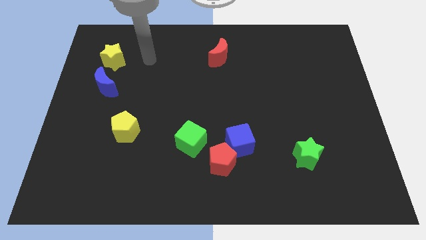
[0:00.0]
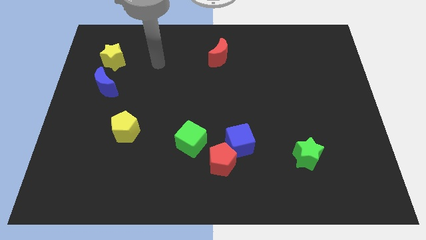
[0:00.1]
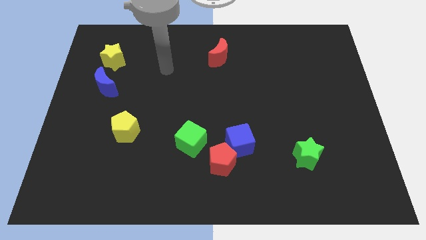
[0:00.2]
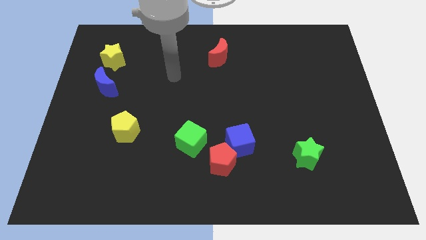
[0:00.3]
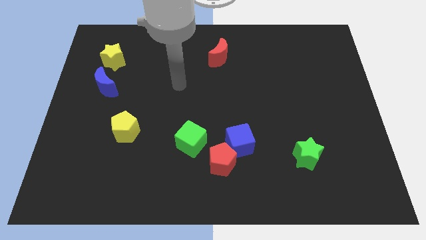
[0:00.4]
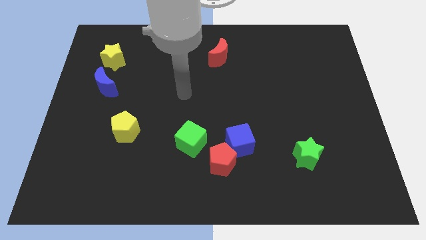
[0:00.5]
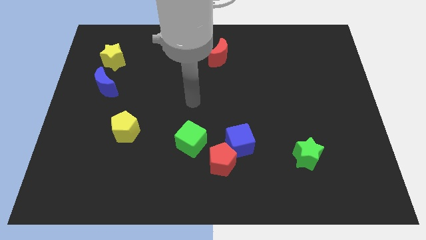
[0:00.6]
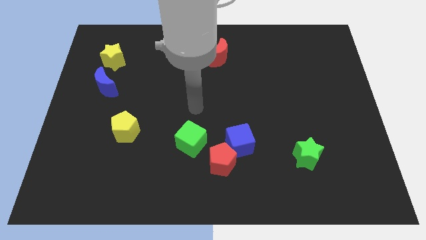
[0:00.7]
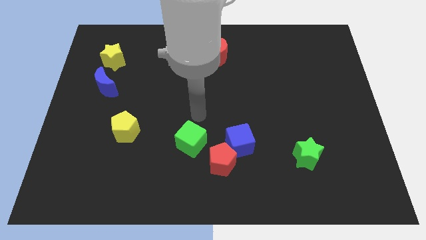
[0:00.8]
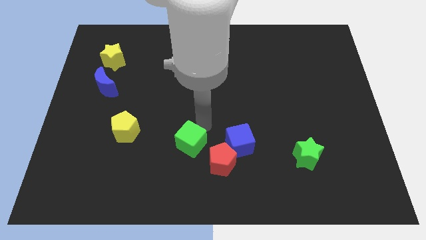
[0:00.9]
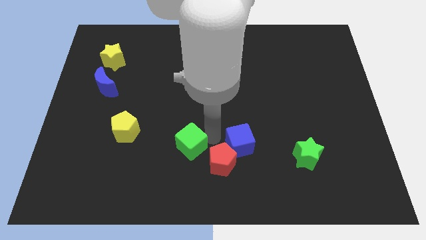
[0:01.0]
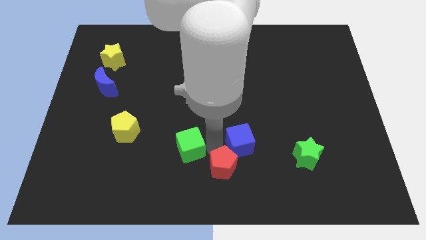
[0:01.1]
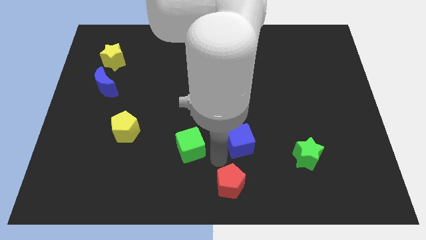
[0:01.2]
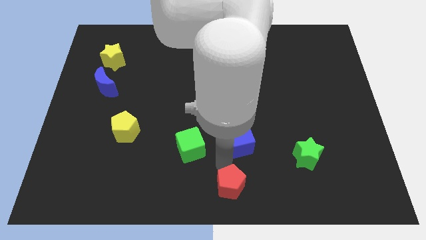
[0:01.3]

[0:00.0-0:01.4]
separate the blue cube from the red pentagon

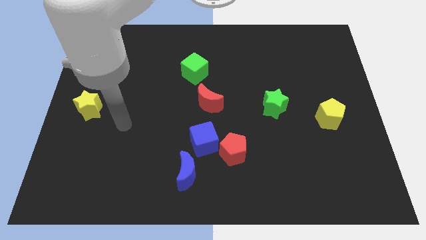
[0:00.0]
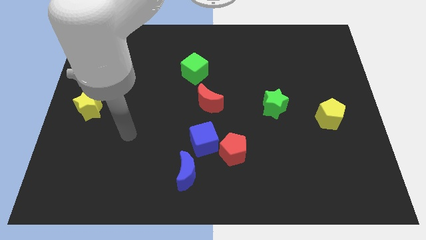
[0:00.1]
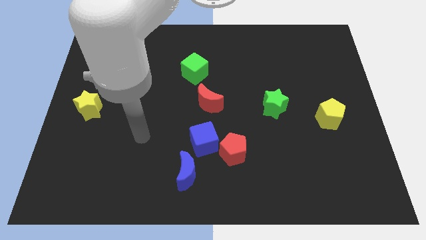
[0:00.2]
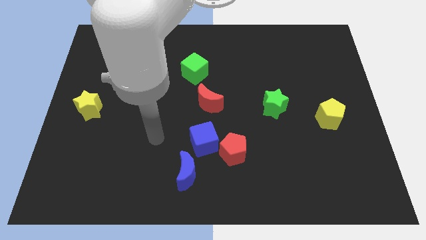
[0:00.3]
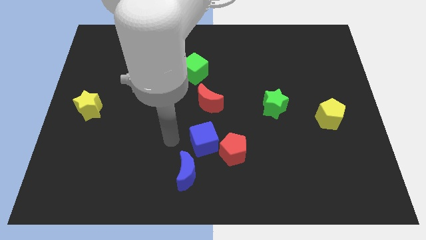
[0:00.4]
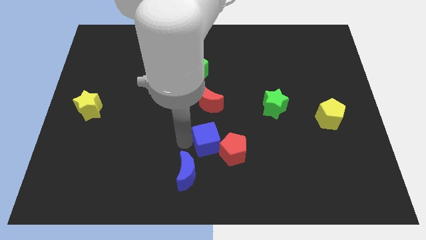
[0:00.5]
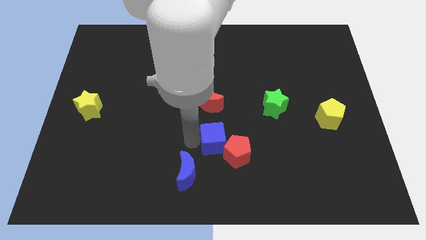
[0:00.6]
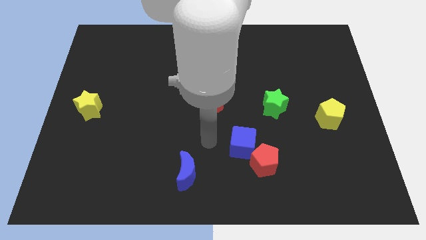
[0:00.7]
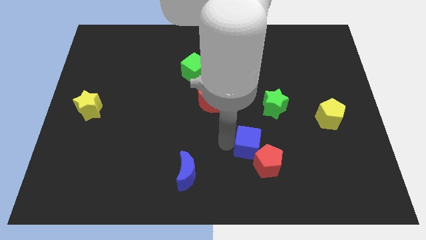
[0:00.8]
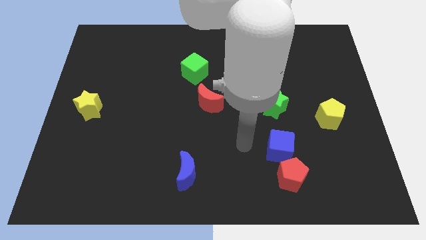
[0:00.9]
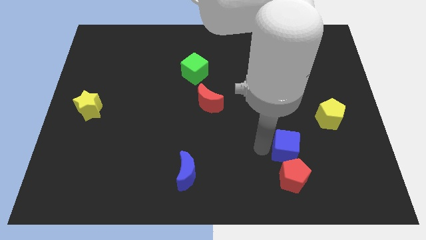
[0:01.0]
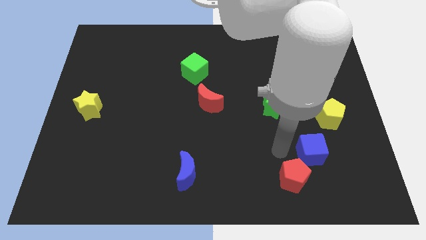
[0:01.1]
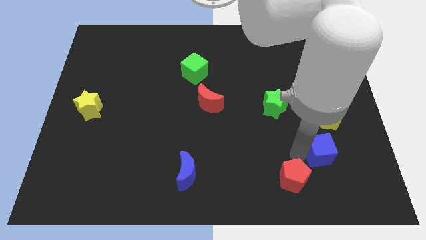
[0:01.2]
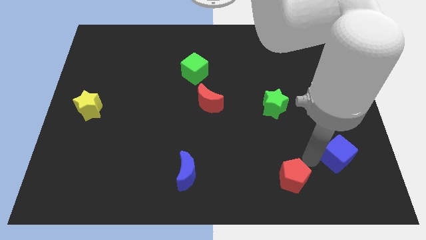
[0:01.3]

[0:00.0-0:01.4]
pull the red pentagon apart from the blue cube

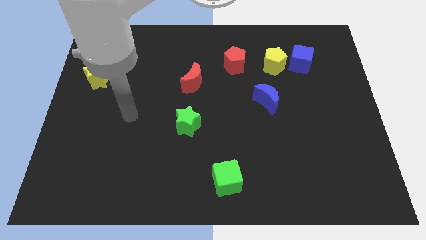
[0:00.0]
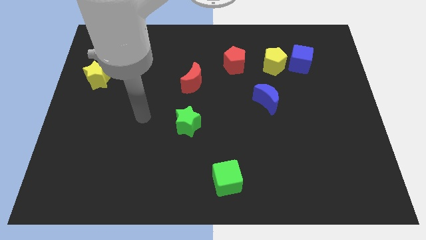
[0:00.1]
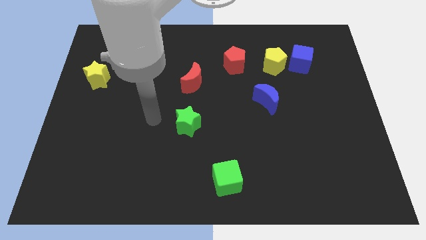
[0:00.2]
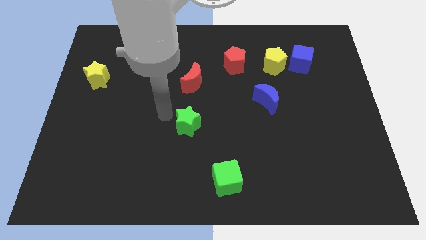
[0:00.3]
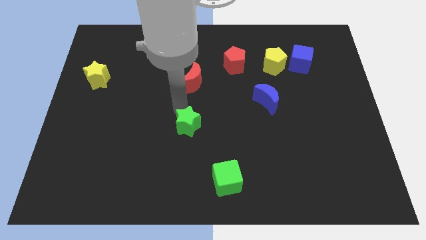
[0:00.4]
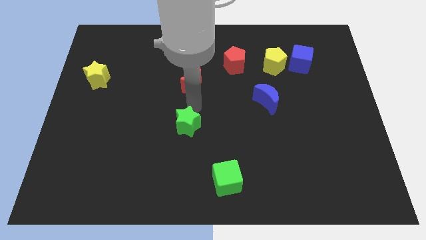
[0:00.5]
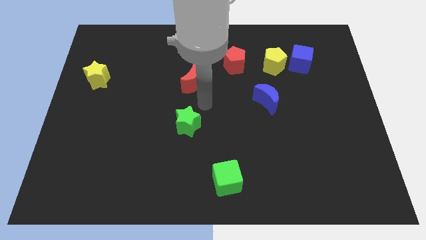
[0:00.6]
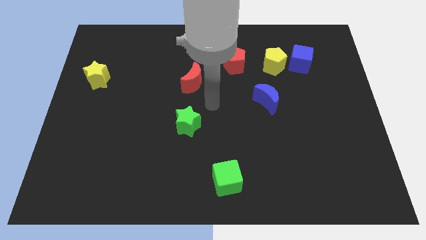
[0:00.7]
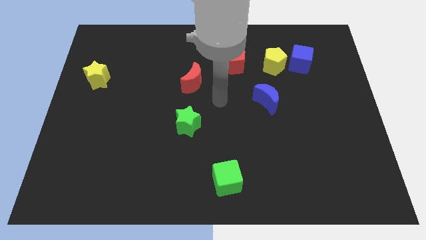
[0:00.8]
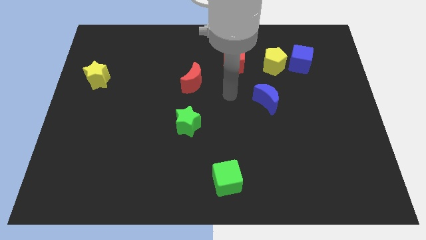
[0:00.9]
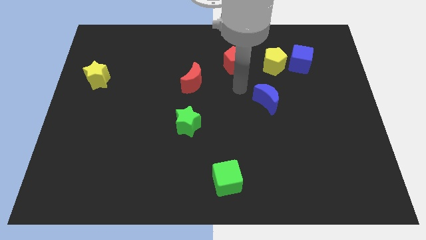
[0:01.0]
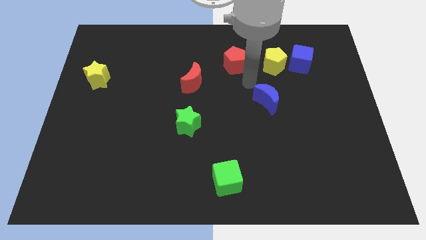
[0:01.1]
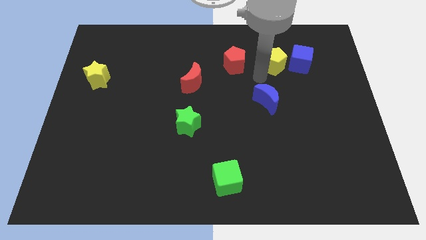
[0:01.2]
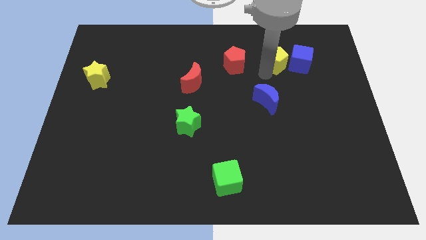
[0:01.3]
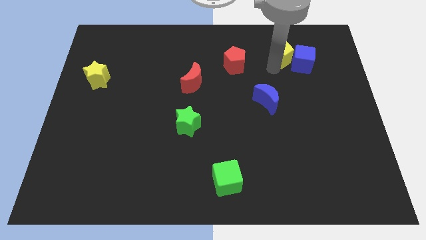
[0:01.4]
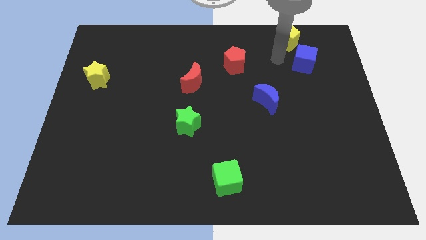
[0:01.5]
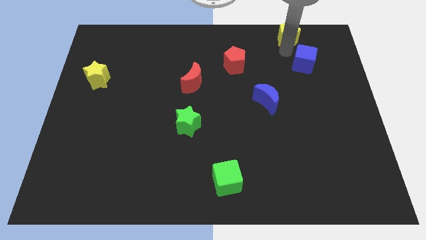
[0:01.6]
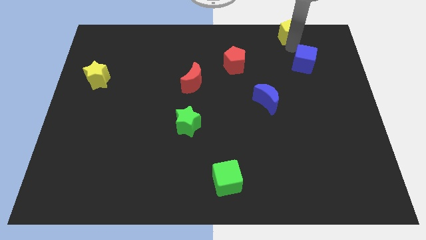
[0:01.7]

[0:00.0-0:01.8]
pull the blue cube apart from the yellow pentagon

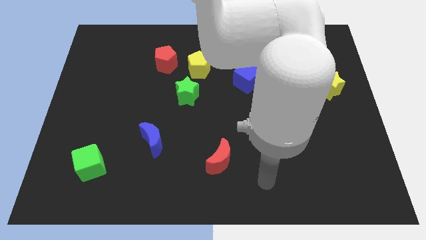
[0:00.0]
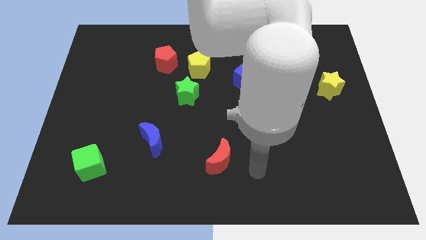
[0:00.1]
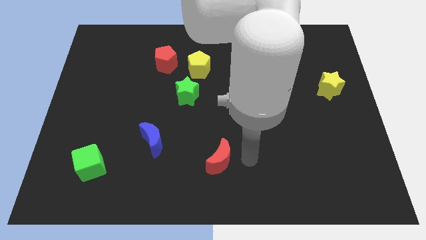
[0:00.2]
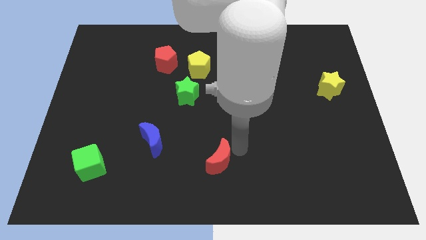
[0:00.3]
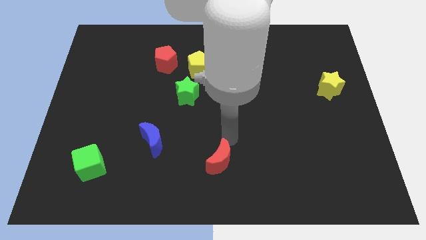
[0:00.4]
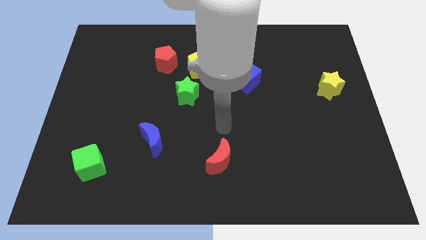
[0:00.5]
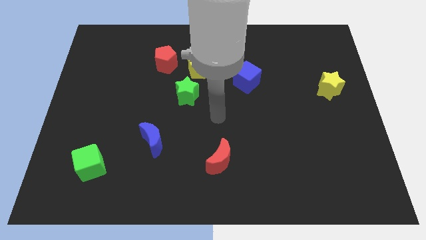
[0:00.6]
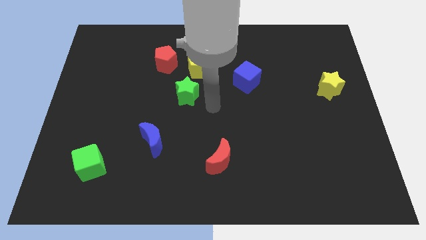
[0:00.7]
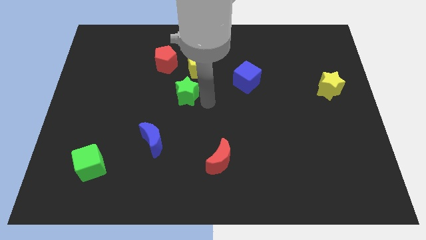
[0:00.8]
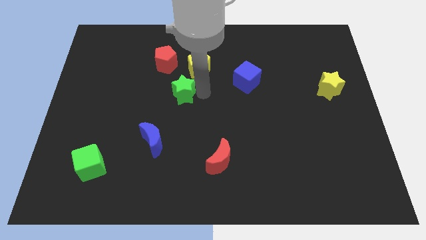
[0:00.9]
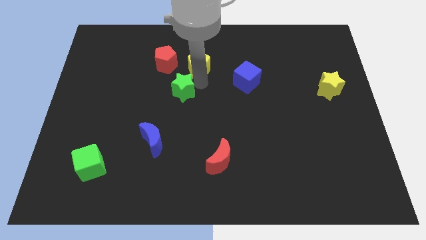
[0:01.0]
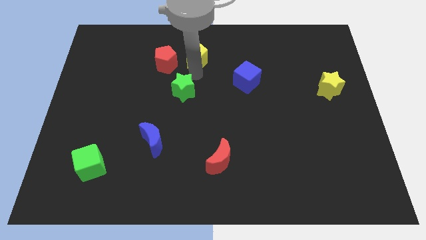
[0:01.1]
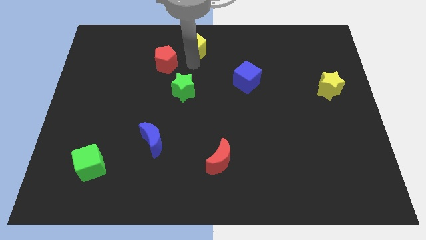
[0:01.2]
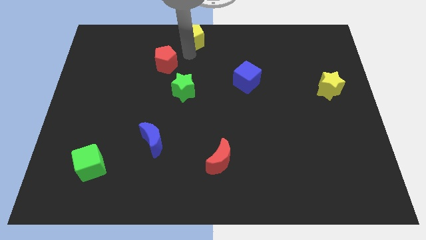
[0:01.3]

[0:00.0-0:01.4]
separate the red pentagon from the yellow pentagon

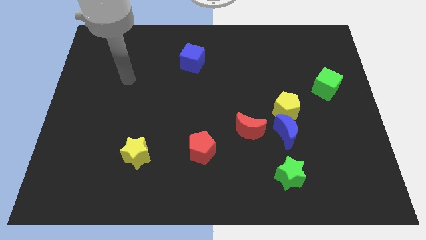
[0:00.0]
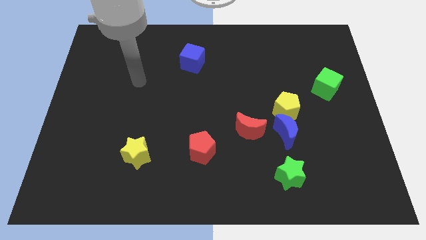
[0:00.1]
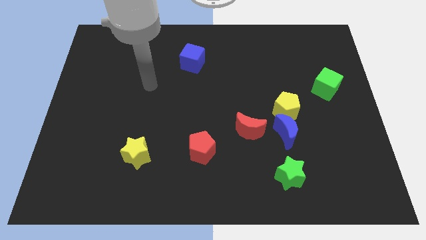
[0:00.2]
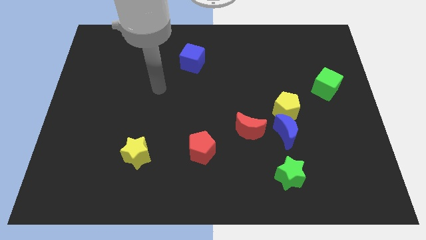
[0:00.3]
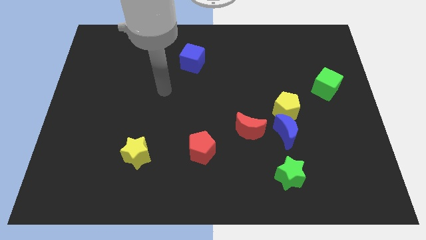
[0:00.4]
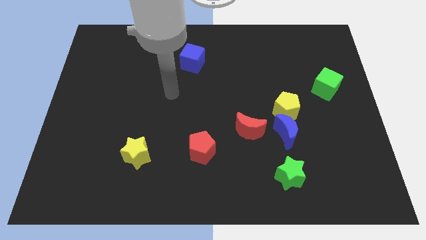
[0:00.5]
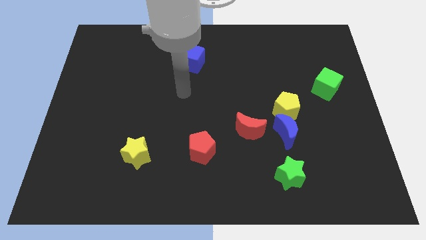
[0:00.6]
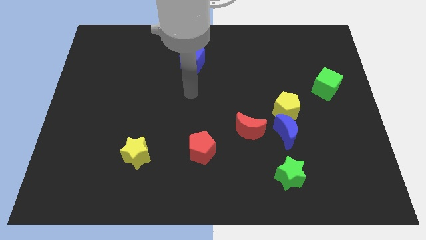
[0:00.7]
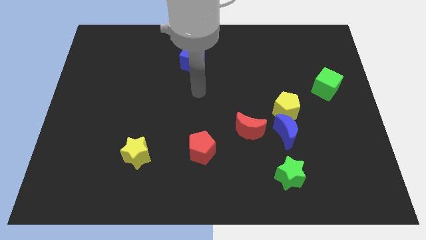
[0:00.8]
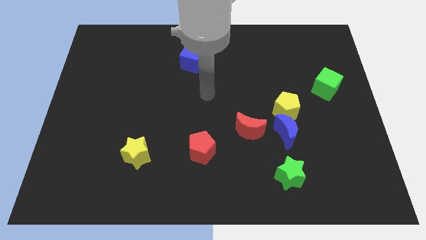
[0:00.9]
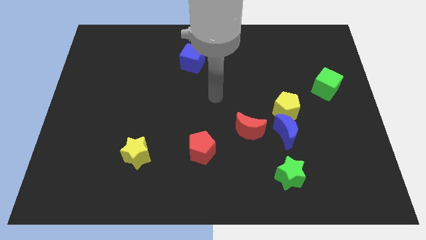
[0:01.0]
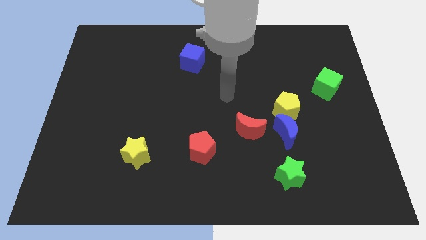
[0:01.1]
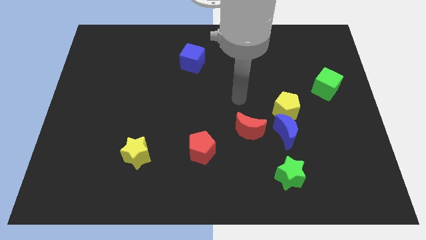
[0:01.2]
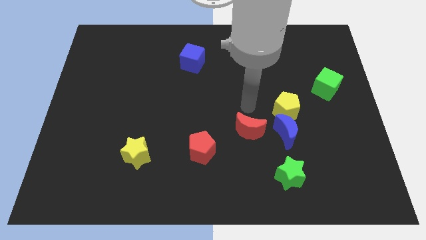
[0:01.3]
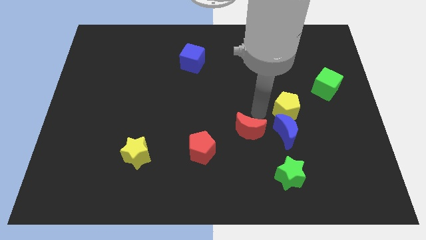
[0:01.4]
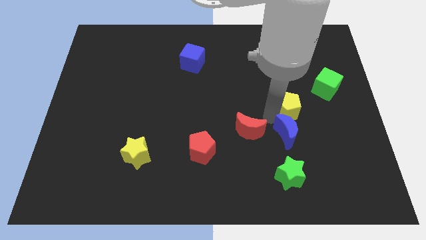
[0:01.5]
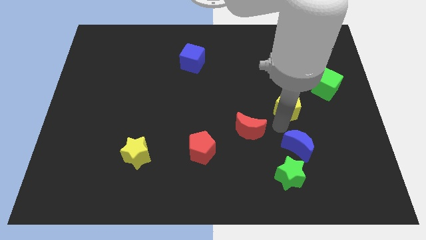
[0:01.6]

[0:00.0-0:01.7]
move the yellow pentagon away from the blue moon

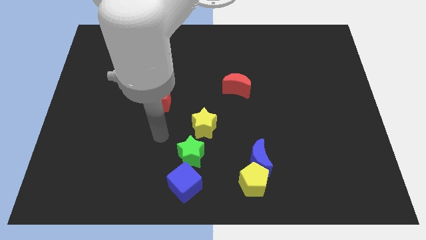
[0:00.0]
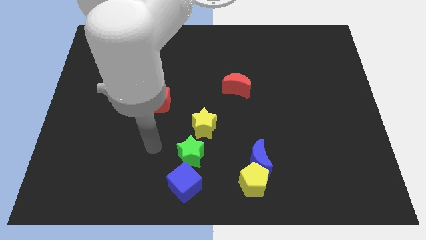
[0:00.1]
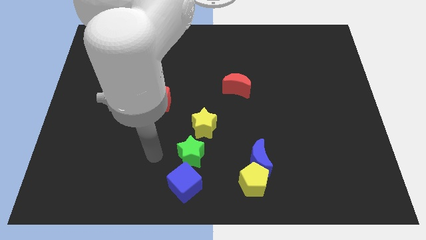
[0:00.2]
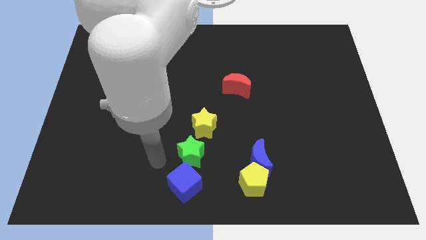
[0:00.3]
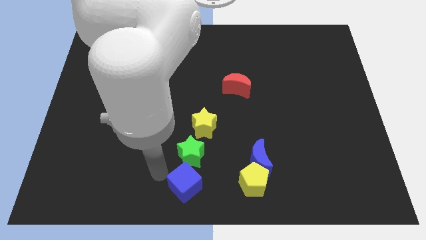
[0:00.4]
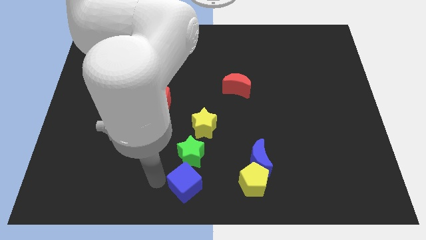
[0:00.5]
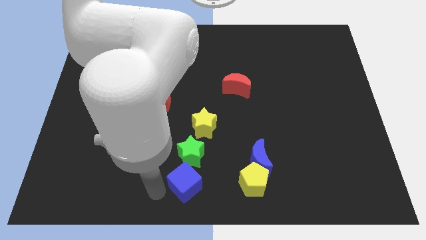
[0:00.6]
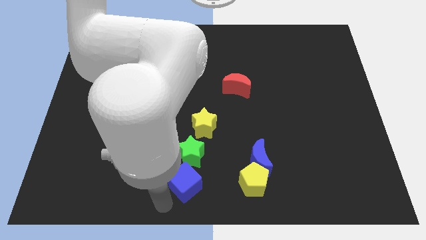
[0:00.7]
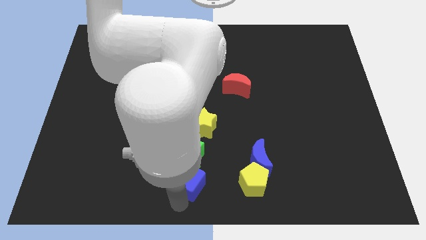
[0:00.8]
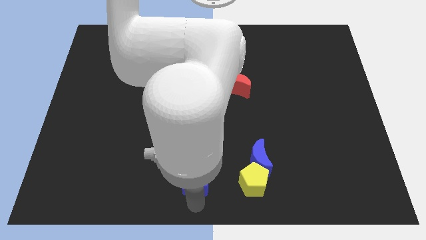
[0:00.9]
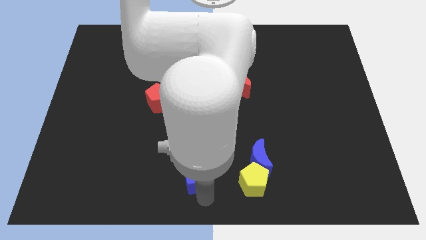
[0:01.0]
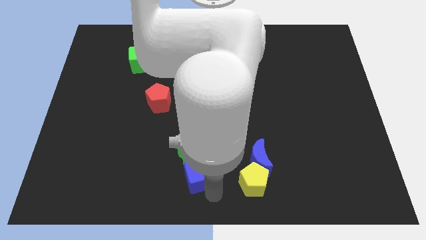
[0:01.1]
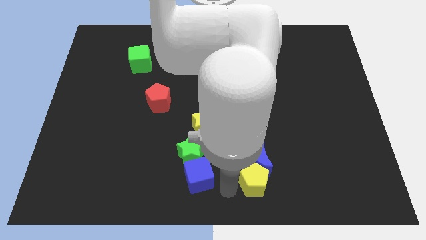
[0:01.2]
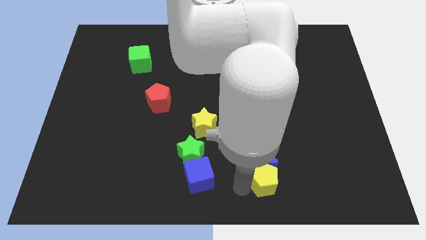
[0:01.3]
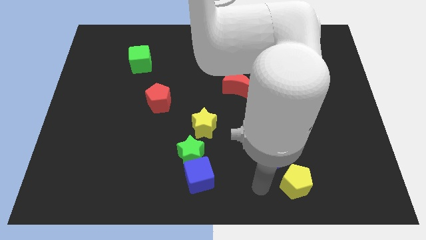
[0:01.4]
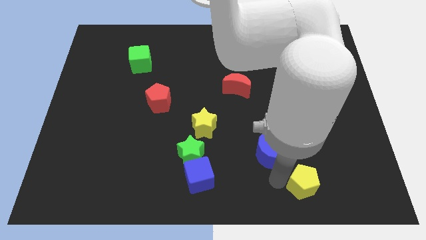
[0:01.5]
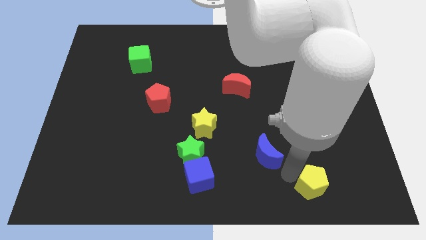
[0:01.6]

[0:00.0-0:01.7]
move the blue moon away from the yellow pentagon
